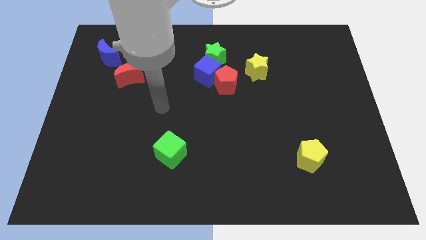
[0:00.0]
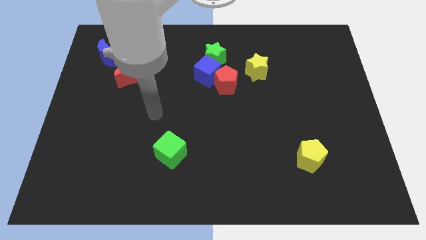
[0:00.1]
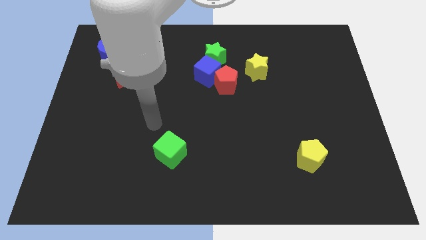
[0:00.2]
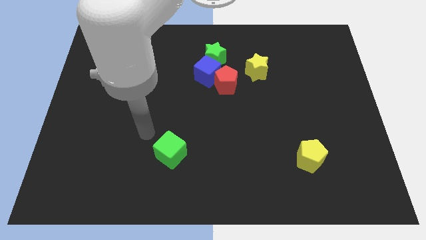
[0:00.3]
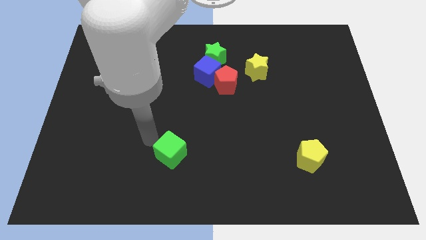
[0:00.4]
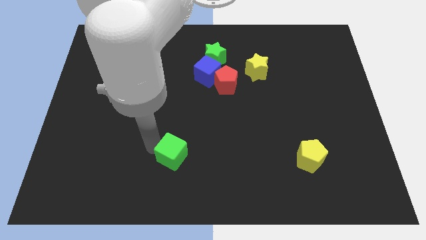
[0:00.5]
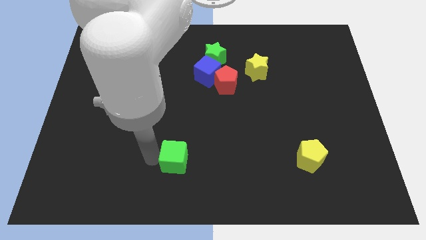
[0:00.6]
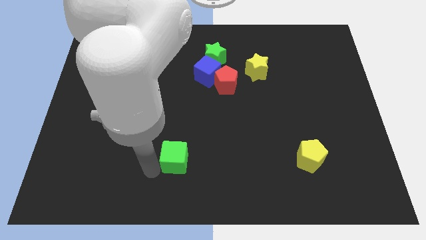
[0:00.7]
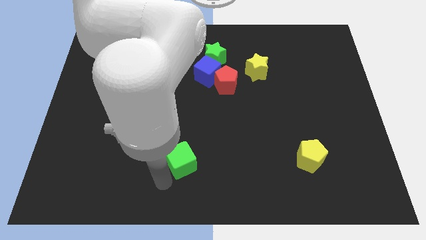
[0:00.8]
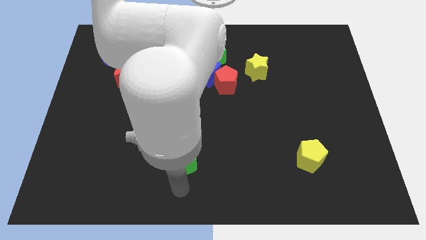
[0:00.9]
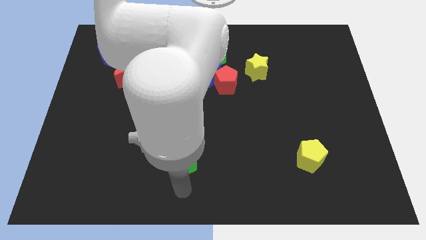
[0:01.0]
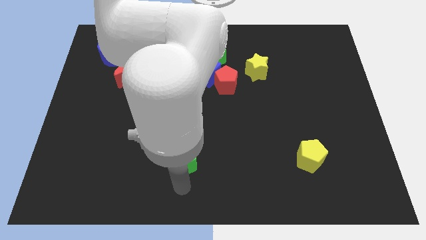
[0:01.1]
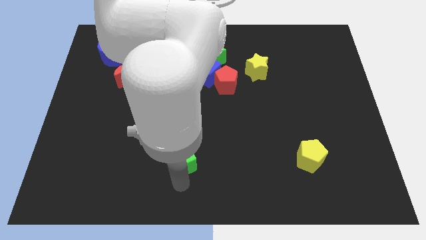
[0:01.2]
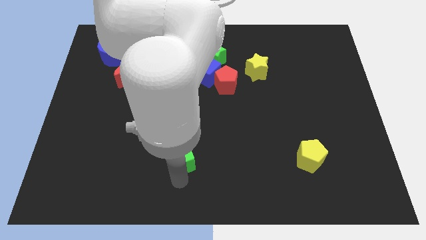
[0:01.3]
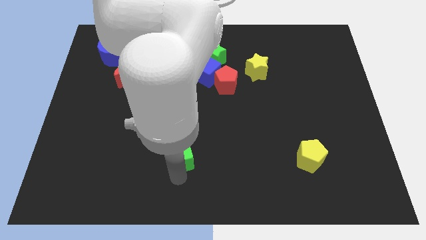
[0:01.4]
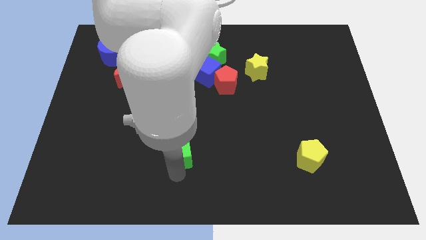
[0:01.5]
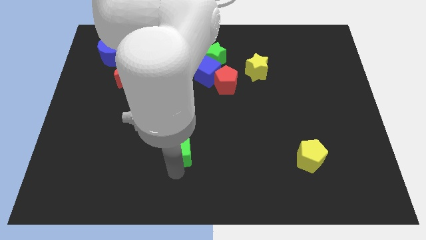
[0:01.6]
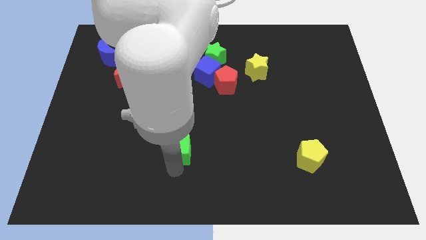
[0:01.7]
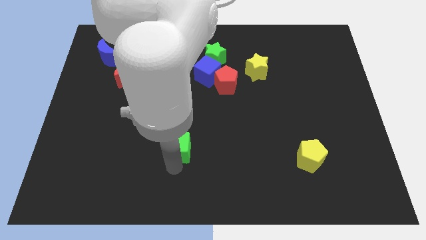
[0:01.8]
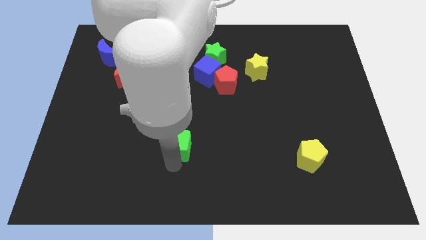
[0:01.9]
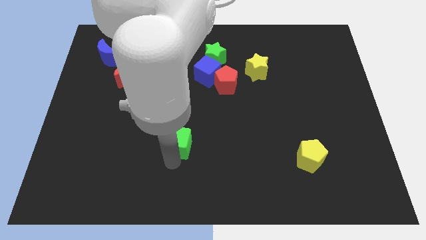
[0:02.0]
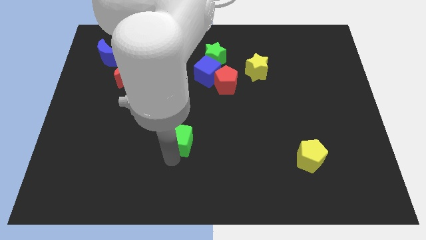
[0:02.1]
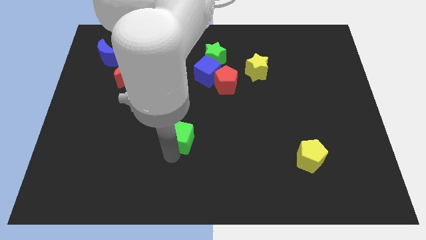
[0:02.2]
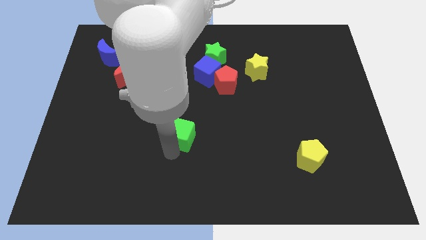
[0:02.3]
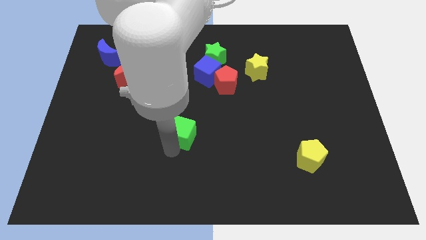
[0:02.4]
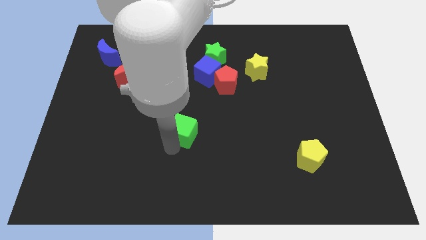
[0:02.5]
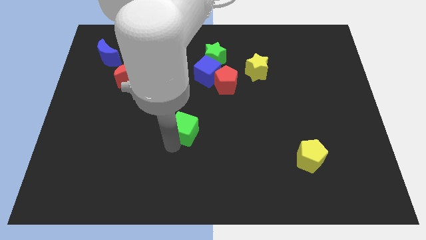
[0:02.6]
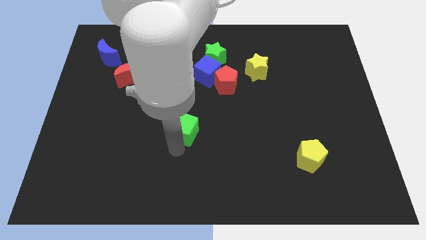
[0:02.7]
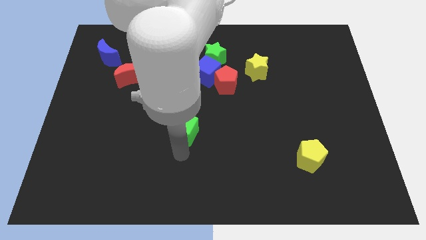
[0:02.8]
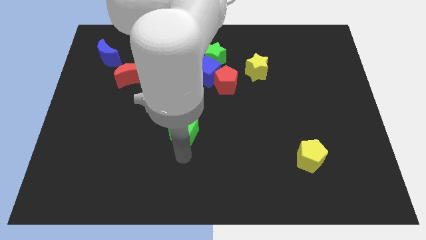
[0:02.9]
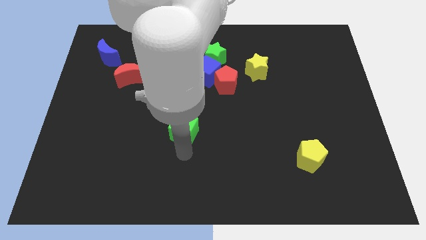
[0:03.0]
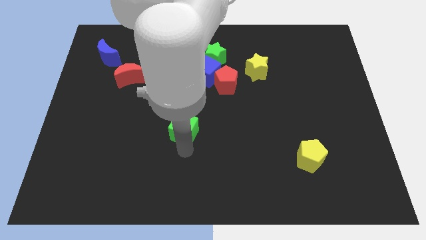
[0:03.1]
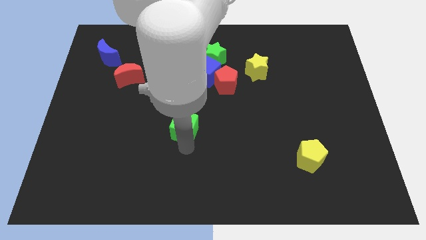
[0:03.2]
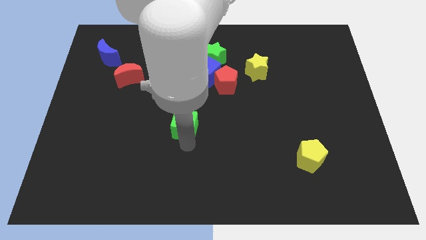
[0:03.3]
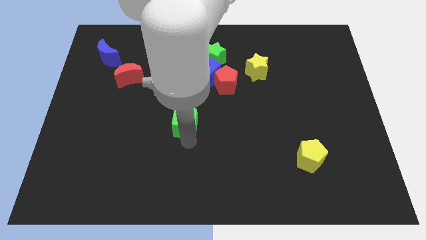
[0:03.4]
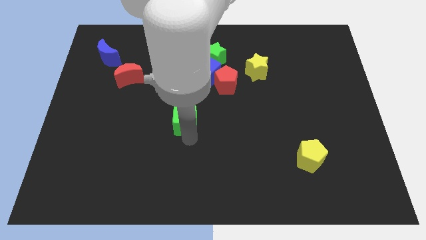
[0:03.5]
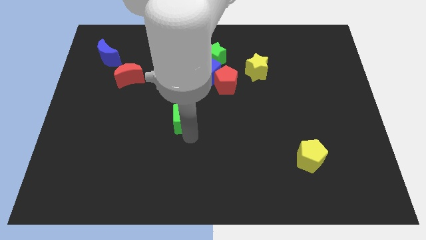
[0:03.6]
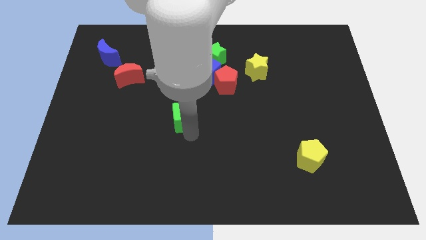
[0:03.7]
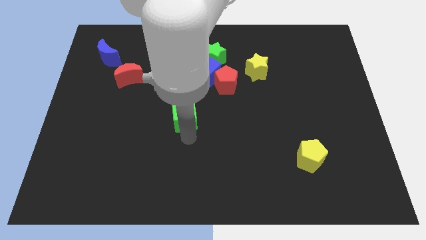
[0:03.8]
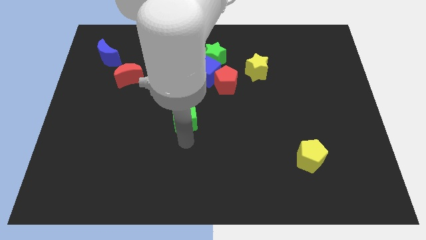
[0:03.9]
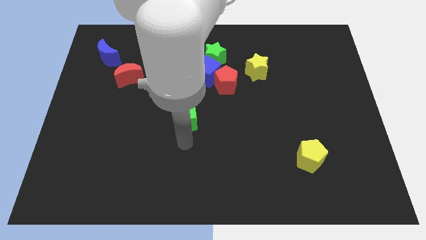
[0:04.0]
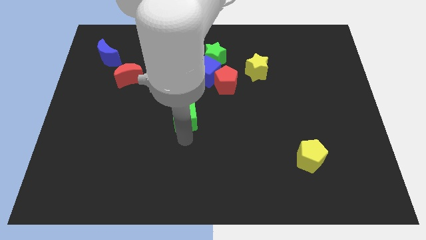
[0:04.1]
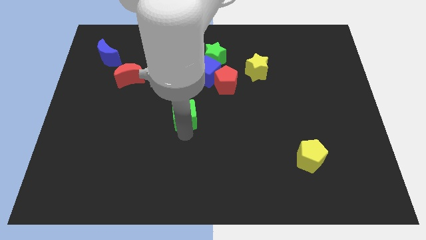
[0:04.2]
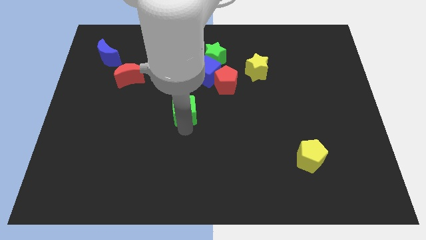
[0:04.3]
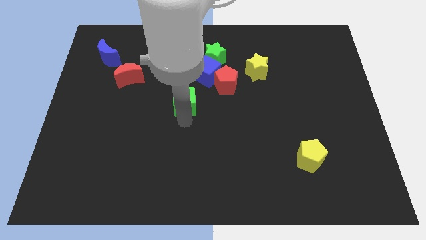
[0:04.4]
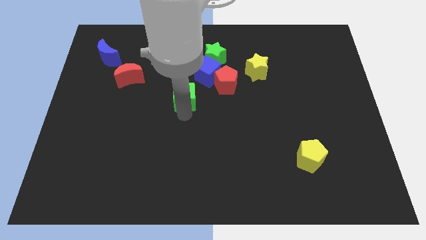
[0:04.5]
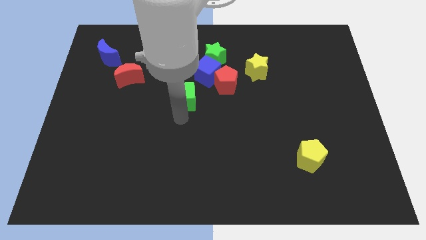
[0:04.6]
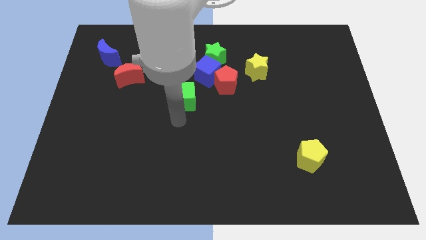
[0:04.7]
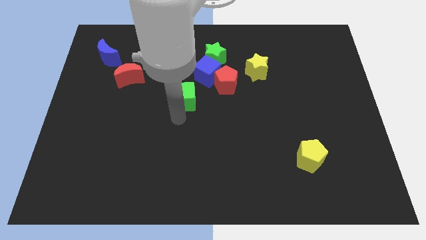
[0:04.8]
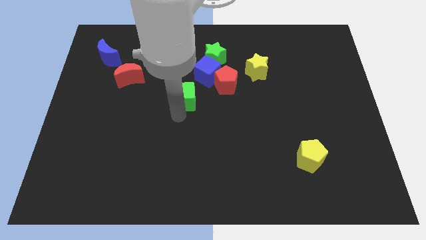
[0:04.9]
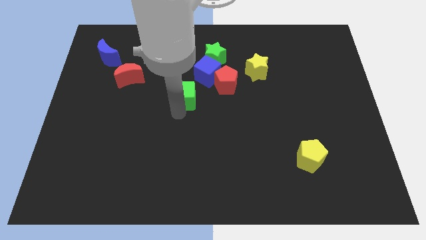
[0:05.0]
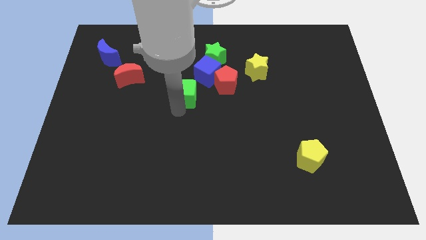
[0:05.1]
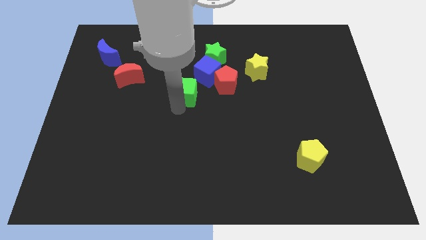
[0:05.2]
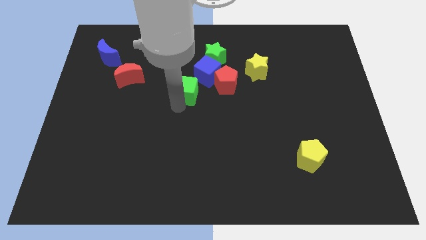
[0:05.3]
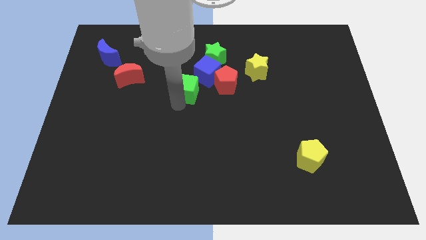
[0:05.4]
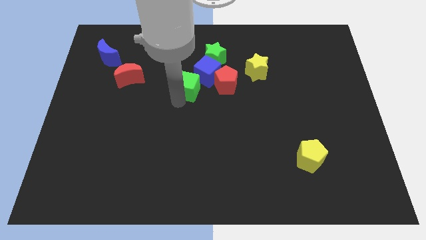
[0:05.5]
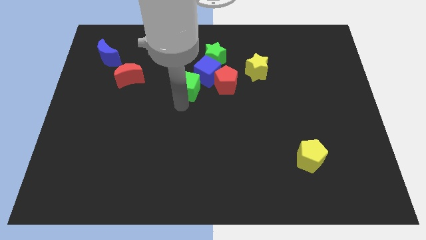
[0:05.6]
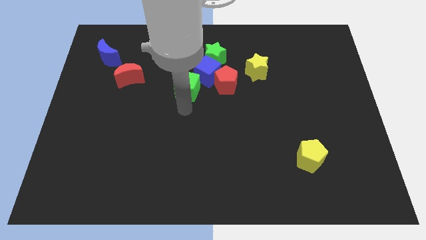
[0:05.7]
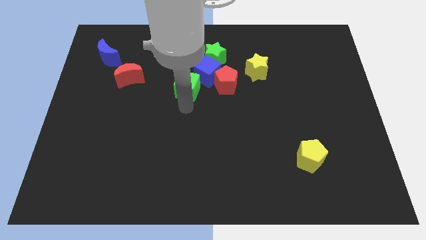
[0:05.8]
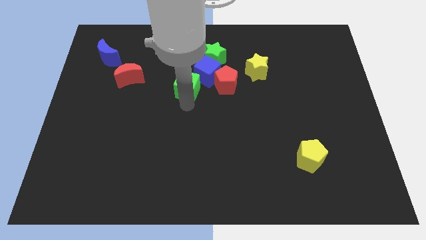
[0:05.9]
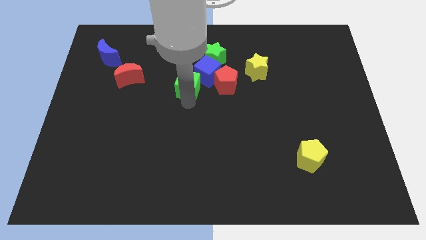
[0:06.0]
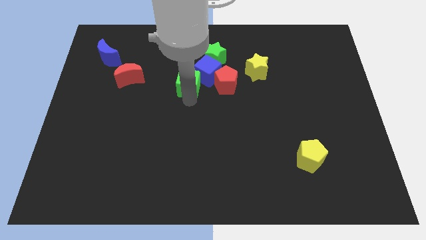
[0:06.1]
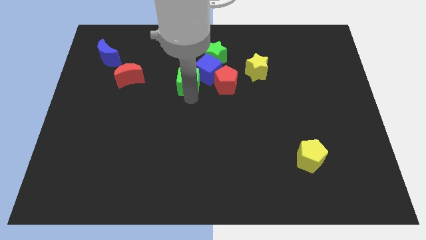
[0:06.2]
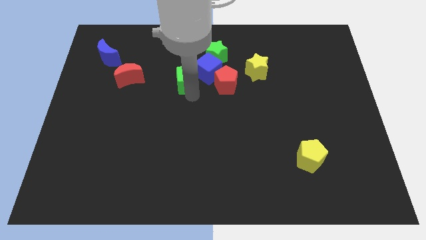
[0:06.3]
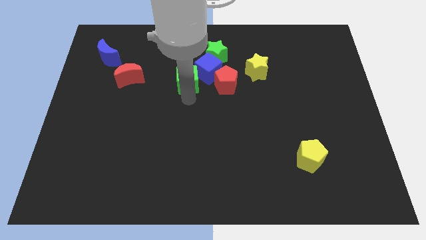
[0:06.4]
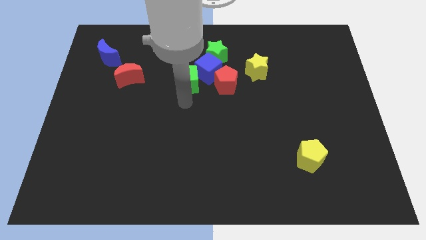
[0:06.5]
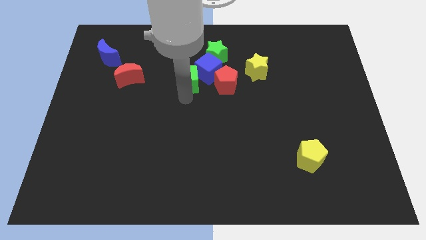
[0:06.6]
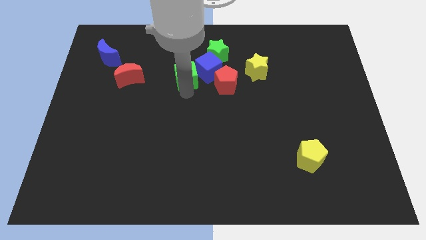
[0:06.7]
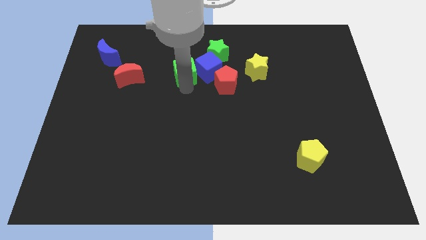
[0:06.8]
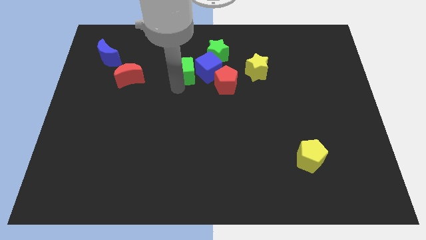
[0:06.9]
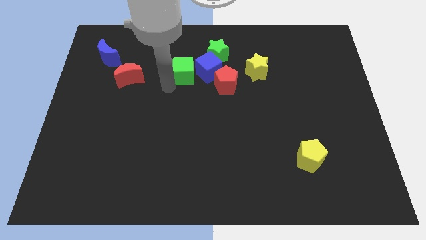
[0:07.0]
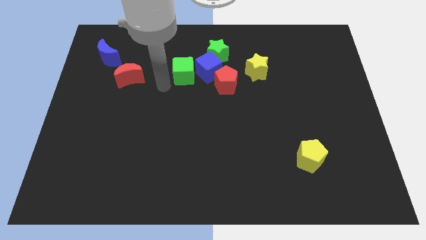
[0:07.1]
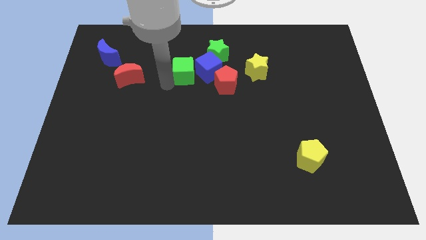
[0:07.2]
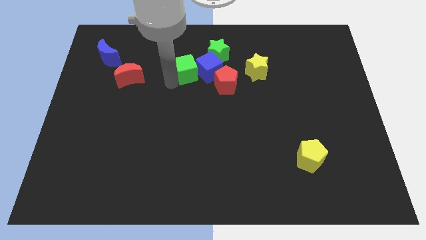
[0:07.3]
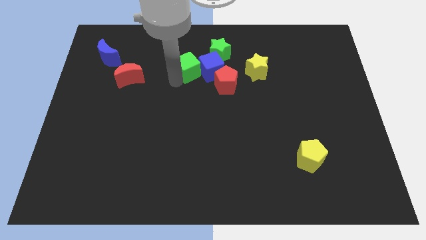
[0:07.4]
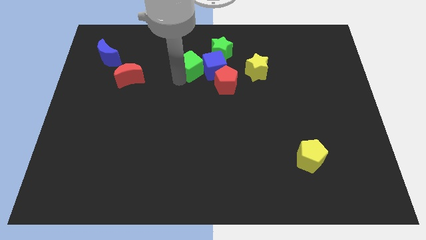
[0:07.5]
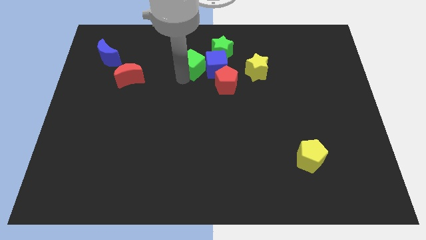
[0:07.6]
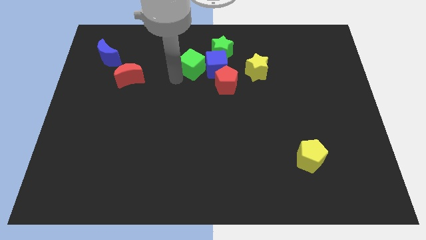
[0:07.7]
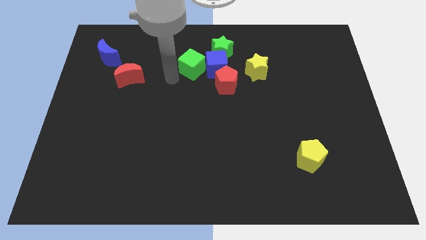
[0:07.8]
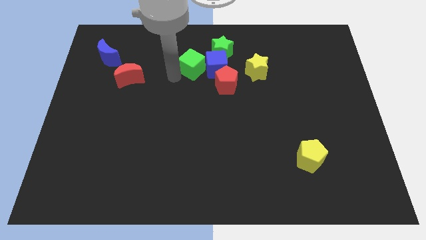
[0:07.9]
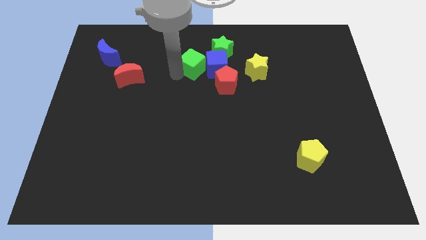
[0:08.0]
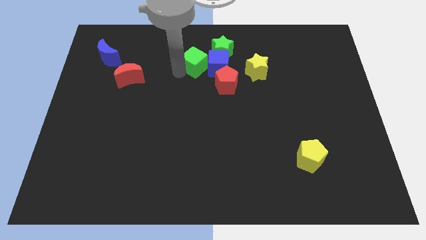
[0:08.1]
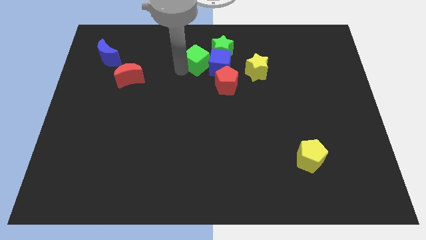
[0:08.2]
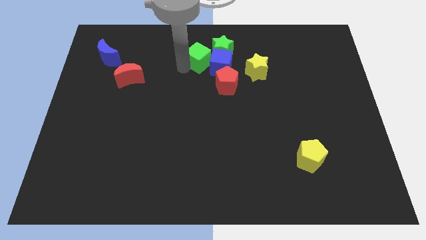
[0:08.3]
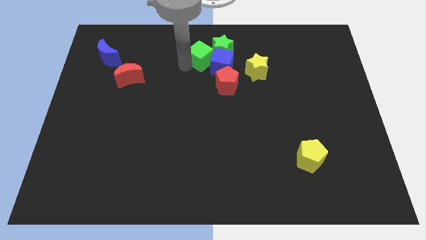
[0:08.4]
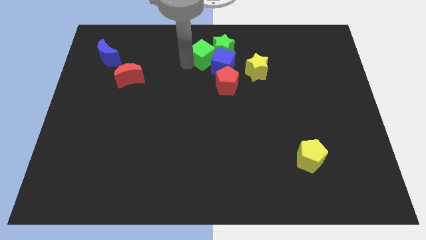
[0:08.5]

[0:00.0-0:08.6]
move the green cube towards the green star
